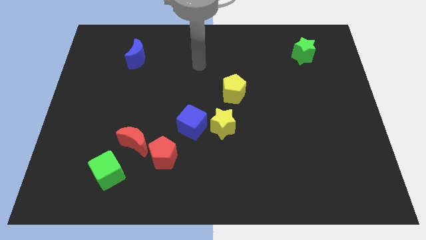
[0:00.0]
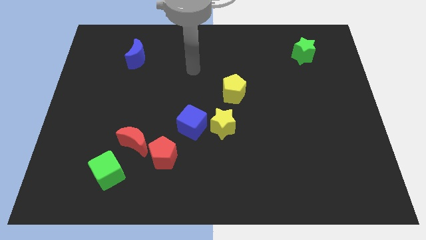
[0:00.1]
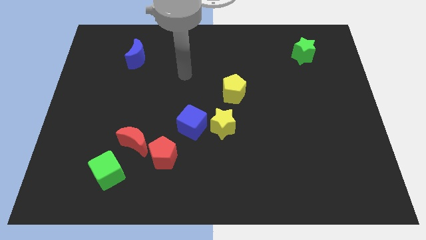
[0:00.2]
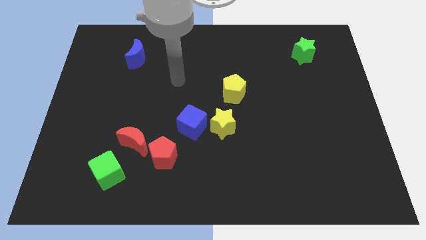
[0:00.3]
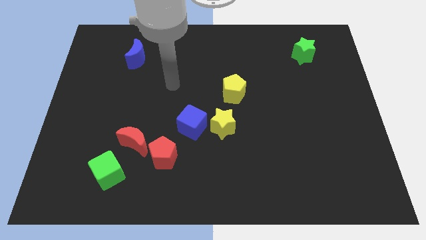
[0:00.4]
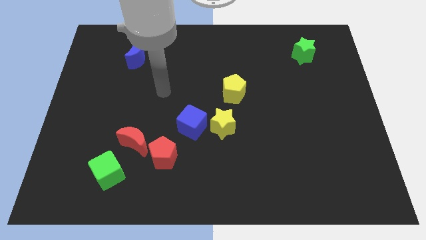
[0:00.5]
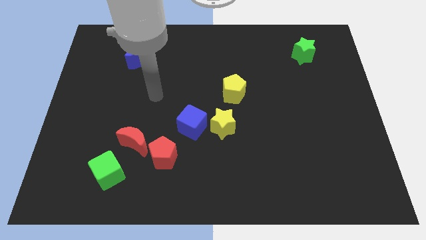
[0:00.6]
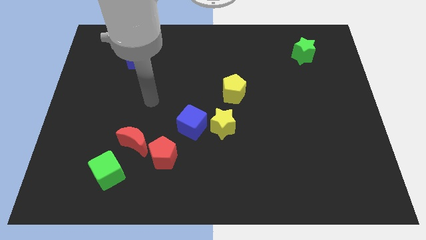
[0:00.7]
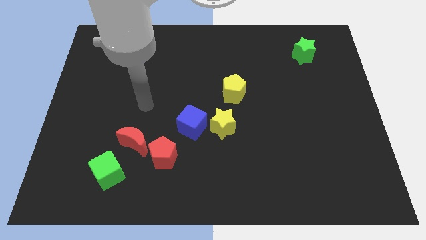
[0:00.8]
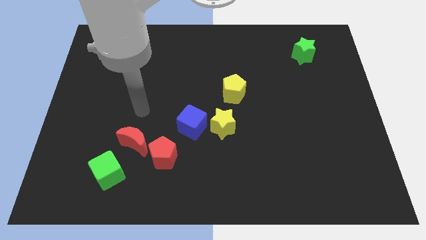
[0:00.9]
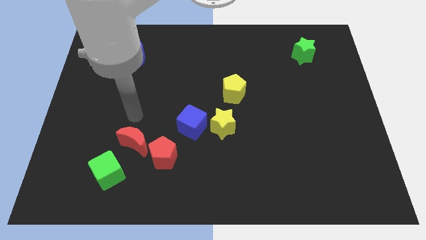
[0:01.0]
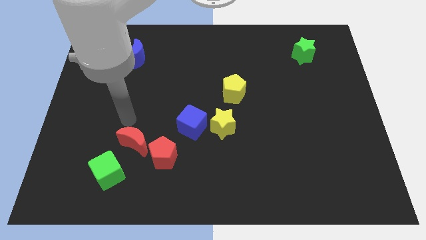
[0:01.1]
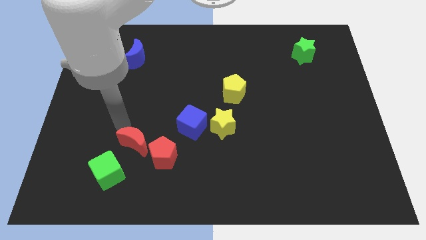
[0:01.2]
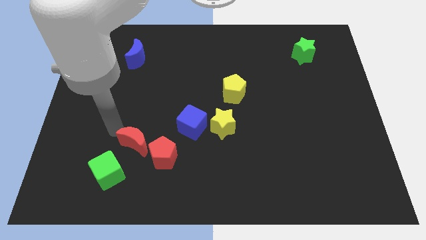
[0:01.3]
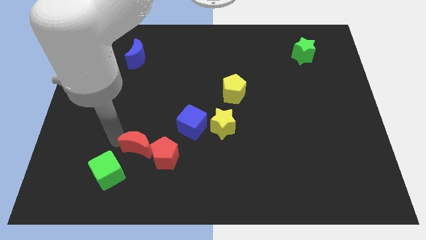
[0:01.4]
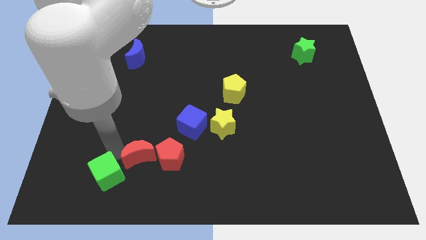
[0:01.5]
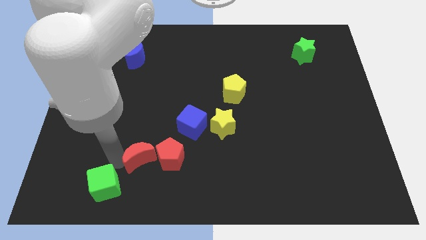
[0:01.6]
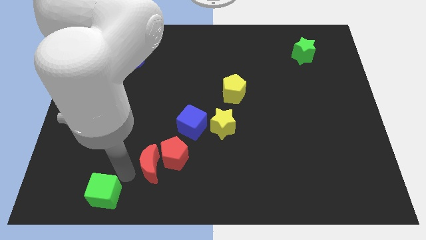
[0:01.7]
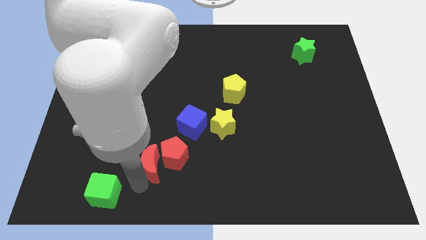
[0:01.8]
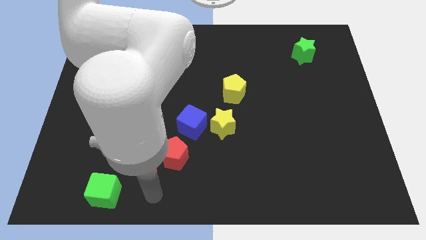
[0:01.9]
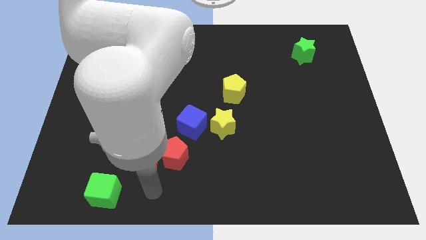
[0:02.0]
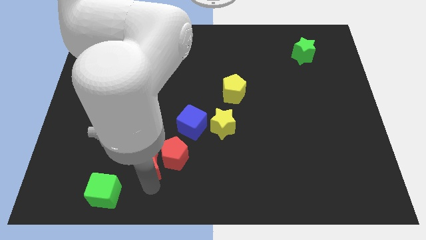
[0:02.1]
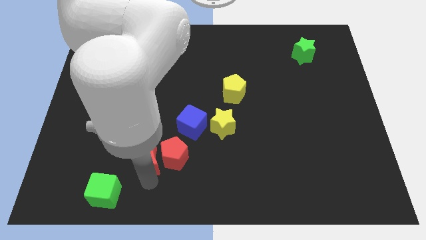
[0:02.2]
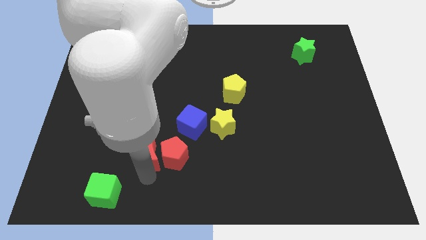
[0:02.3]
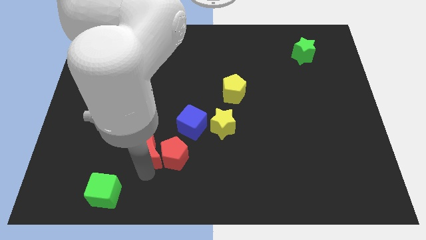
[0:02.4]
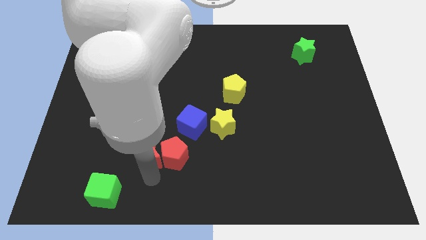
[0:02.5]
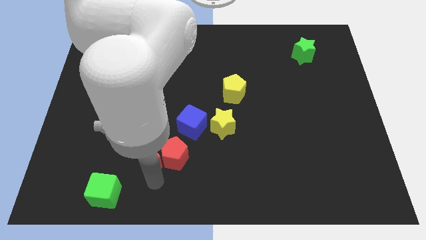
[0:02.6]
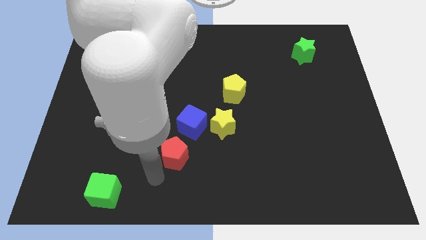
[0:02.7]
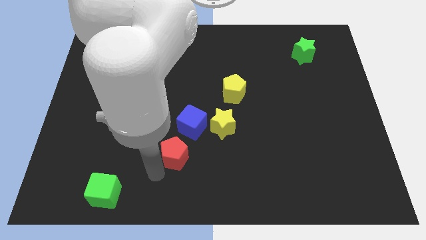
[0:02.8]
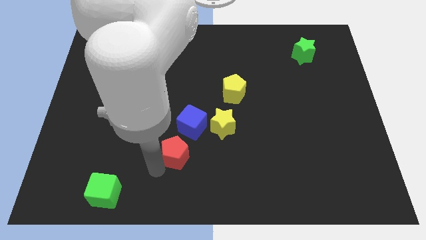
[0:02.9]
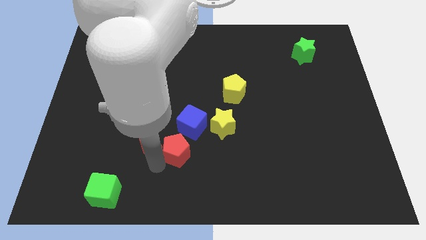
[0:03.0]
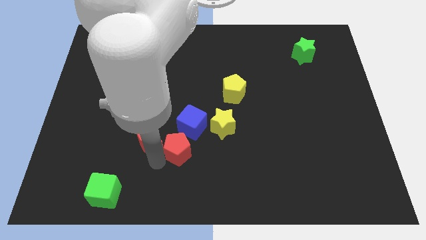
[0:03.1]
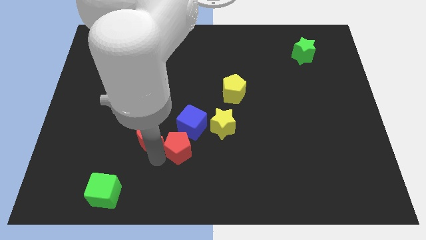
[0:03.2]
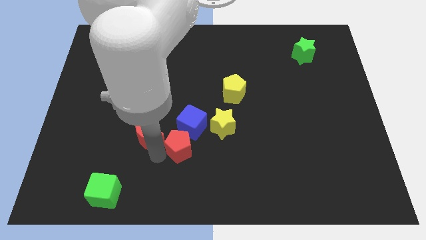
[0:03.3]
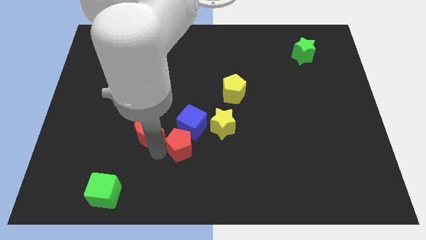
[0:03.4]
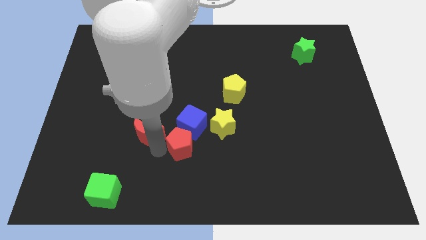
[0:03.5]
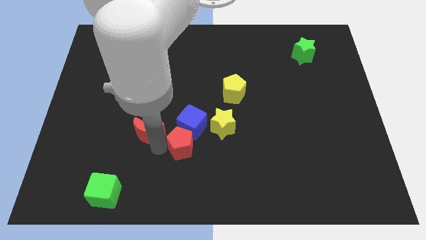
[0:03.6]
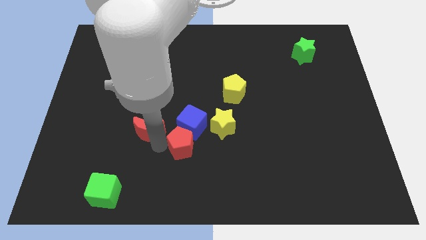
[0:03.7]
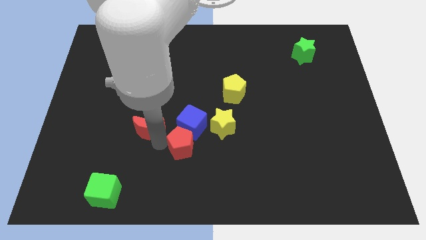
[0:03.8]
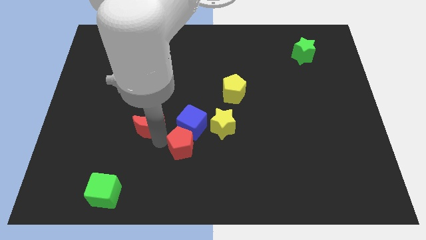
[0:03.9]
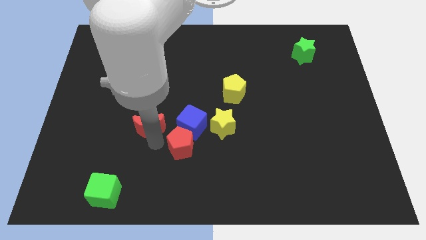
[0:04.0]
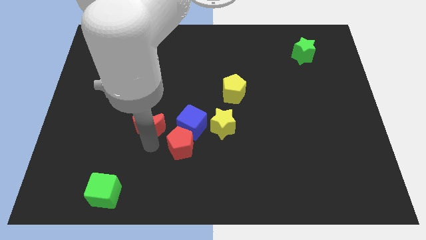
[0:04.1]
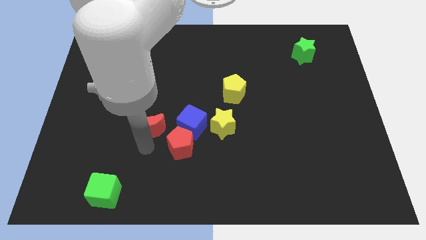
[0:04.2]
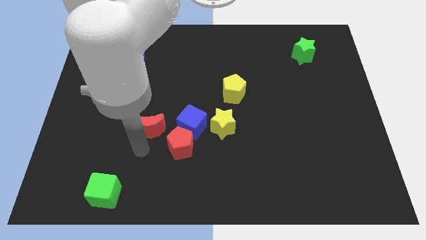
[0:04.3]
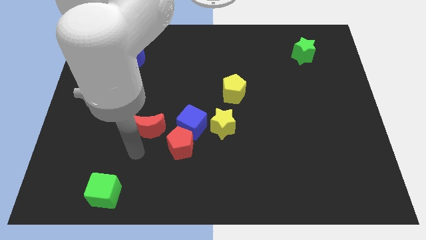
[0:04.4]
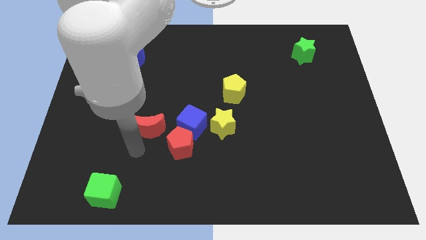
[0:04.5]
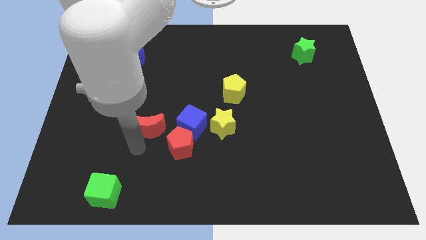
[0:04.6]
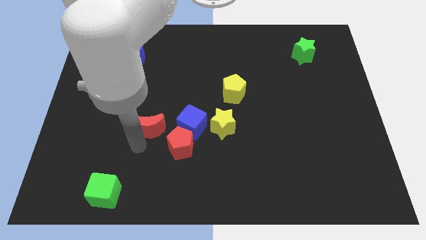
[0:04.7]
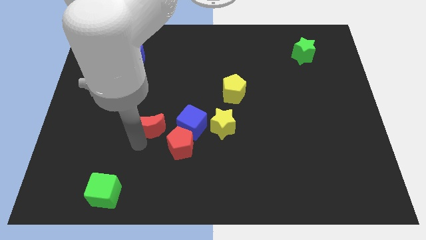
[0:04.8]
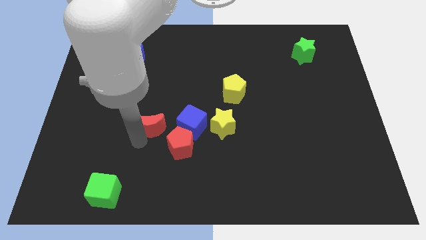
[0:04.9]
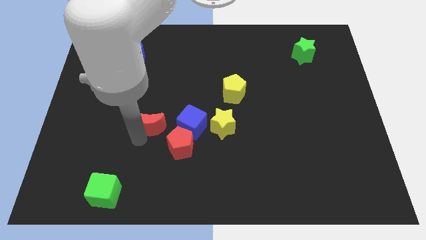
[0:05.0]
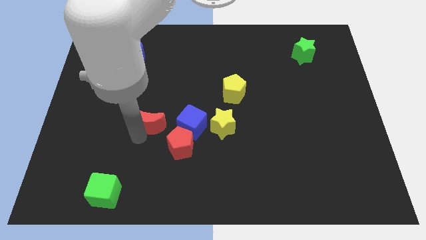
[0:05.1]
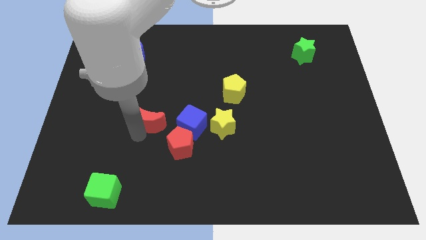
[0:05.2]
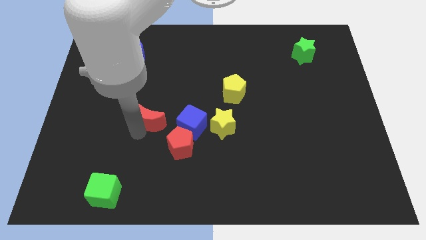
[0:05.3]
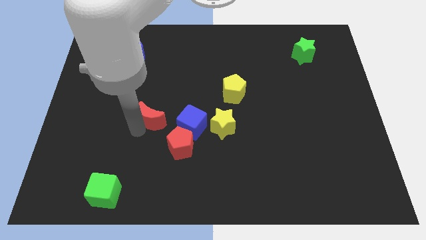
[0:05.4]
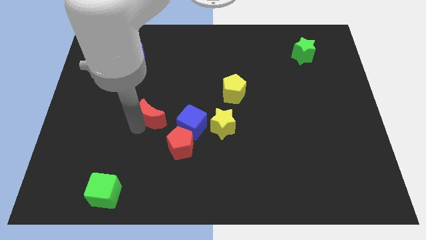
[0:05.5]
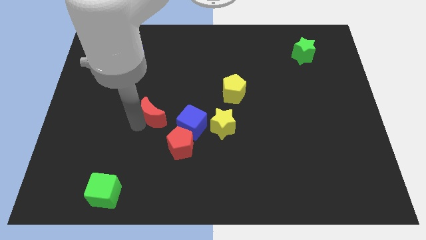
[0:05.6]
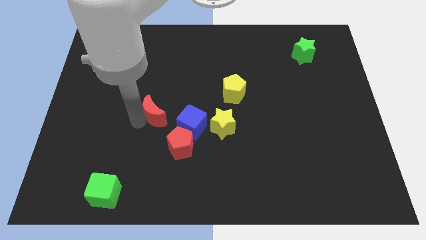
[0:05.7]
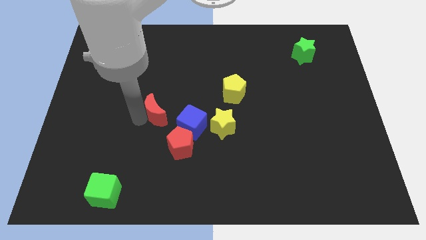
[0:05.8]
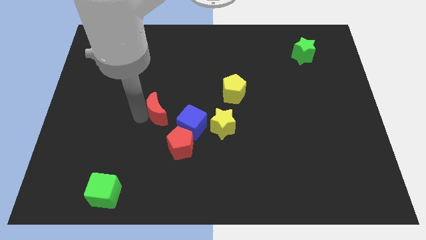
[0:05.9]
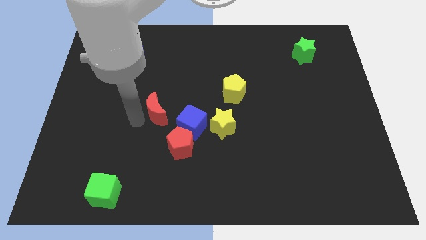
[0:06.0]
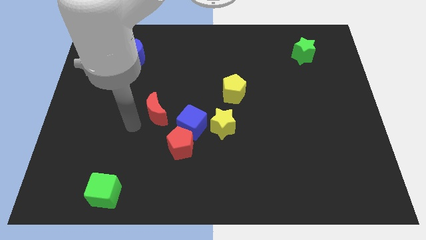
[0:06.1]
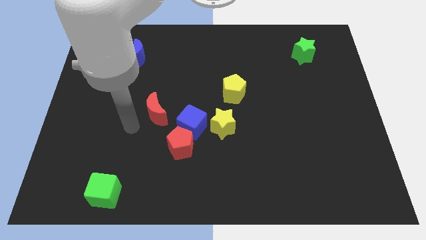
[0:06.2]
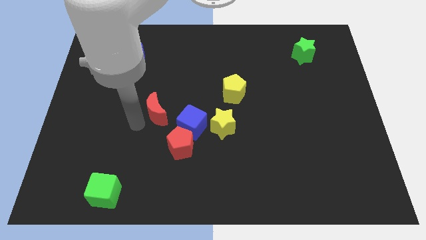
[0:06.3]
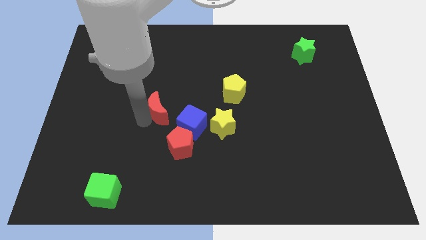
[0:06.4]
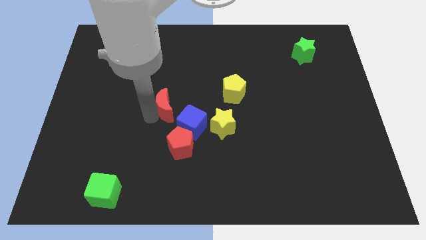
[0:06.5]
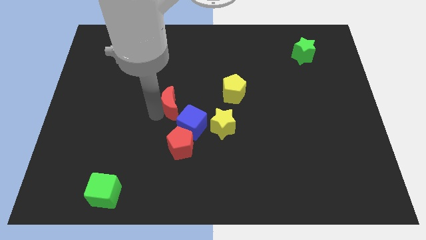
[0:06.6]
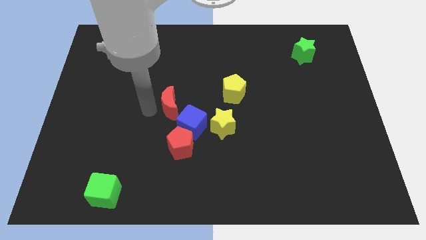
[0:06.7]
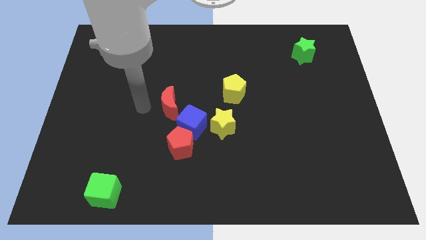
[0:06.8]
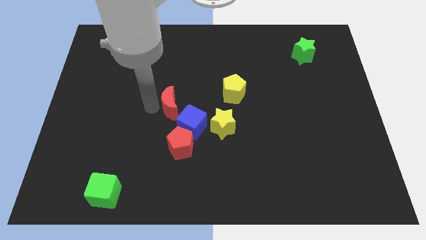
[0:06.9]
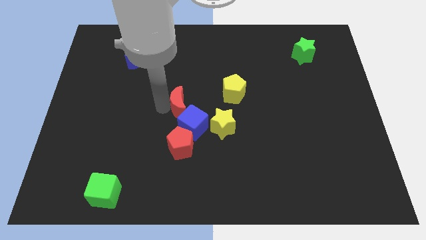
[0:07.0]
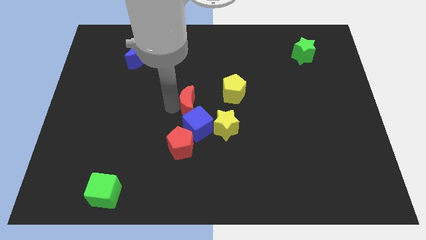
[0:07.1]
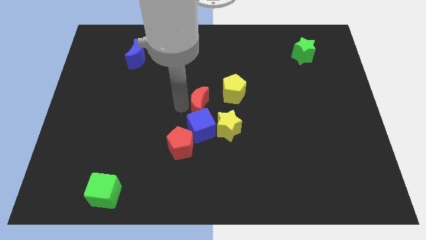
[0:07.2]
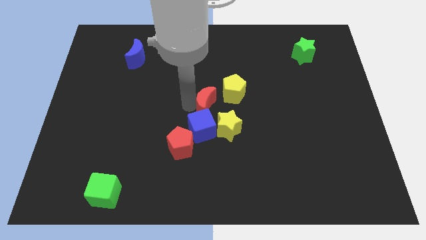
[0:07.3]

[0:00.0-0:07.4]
move the red moon to the top right of the blue cube
